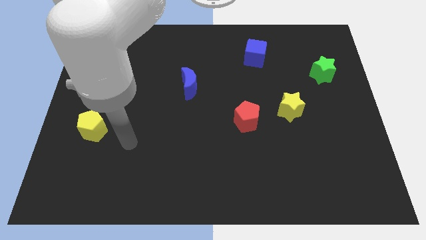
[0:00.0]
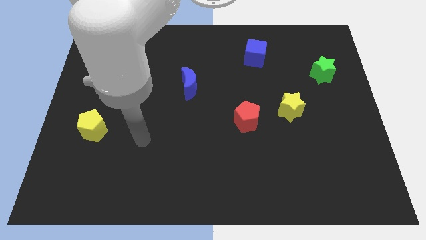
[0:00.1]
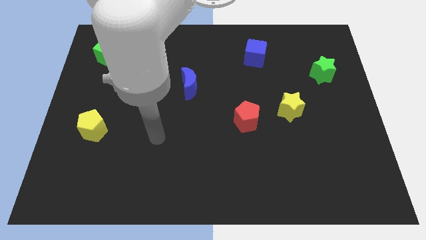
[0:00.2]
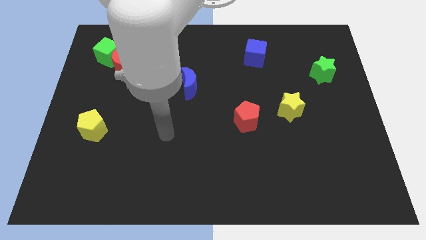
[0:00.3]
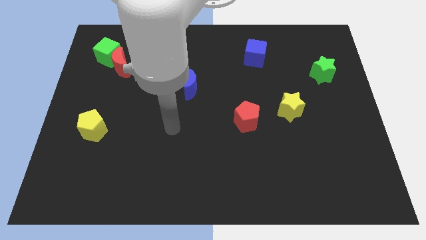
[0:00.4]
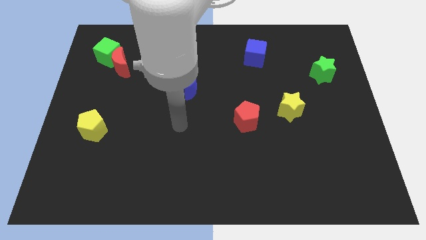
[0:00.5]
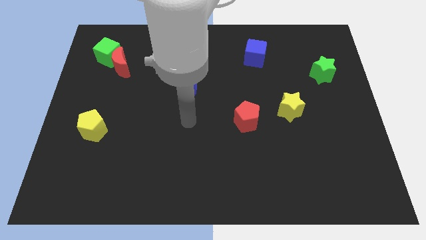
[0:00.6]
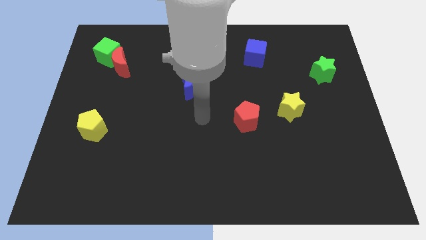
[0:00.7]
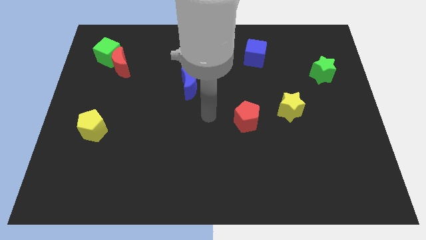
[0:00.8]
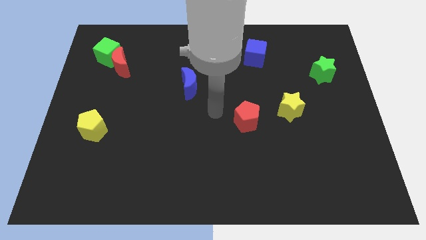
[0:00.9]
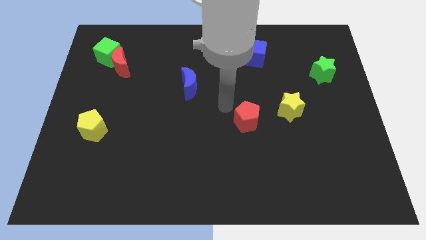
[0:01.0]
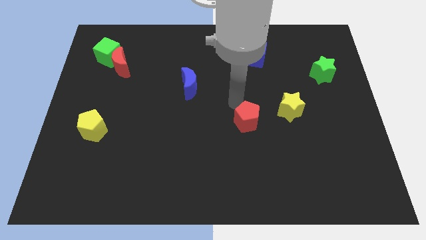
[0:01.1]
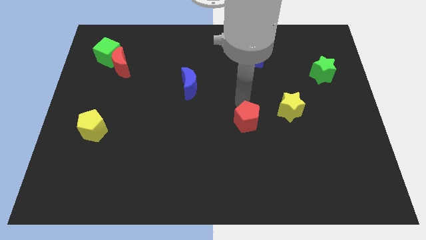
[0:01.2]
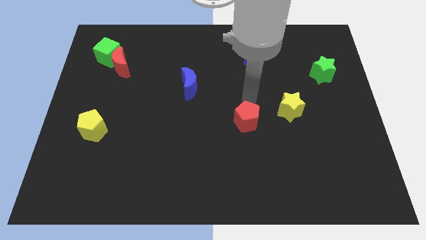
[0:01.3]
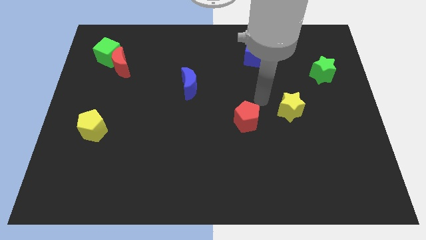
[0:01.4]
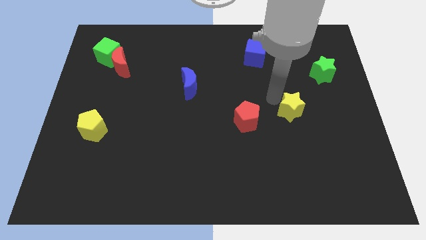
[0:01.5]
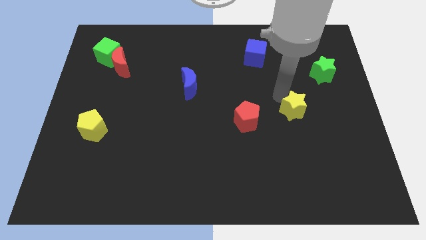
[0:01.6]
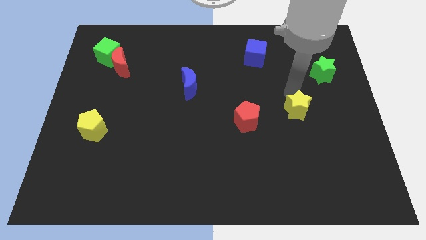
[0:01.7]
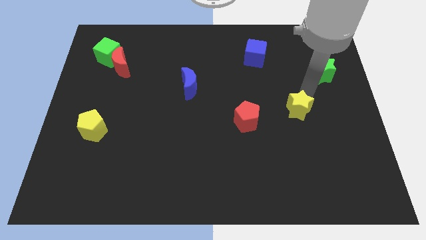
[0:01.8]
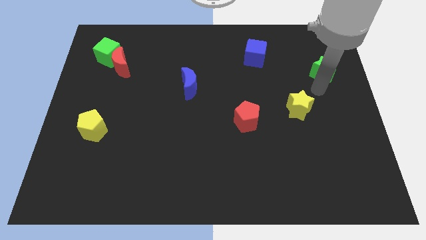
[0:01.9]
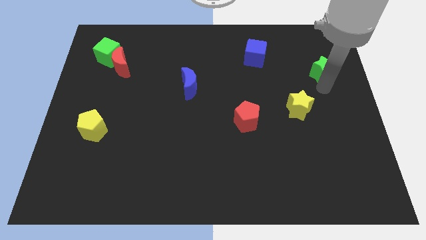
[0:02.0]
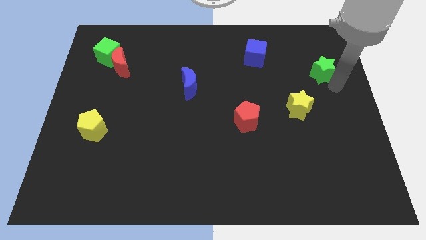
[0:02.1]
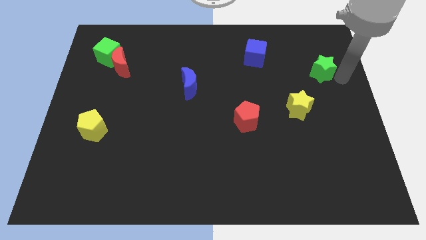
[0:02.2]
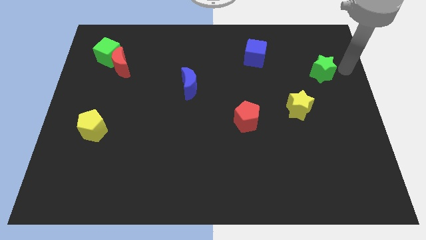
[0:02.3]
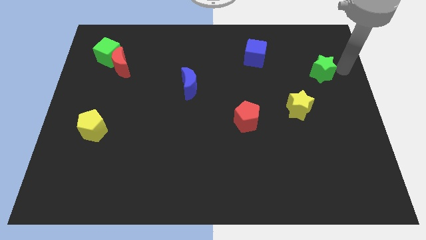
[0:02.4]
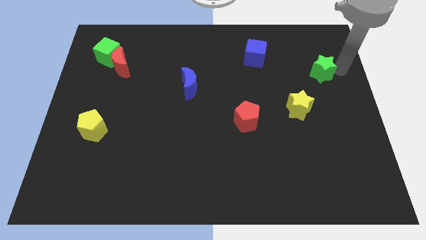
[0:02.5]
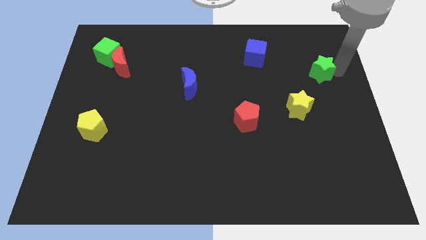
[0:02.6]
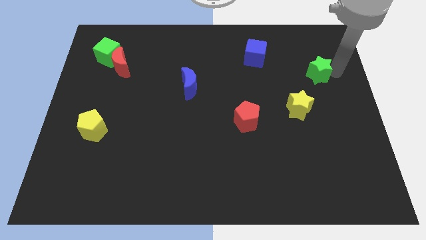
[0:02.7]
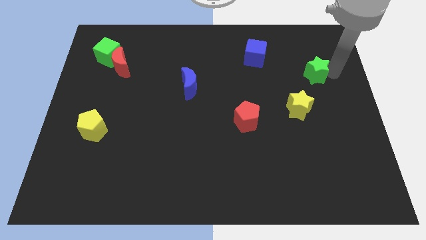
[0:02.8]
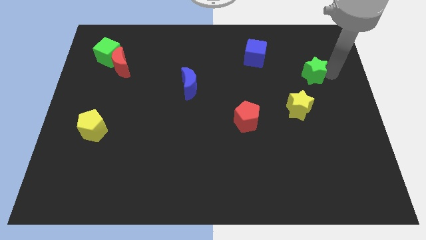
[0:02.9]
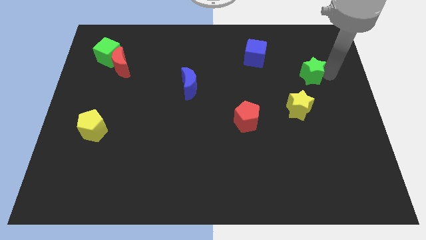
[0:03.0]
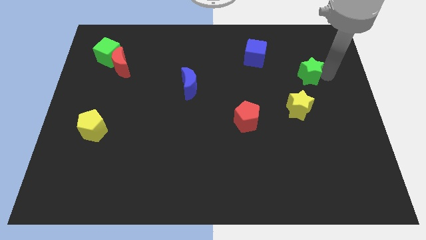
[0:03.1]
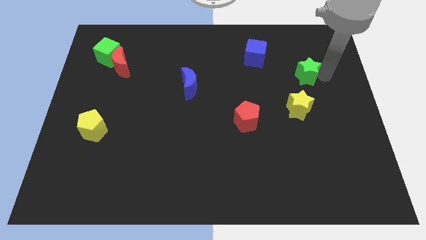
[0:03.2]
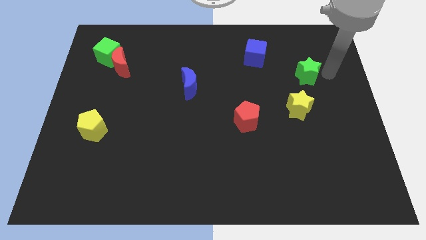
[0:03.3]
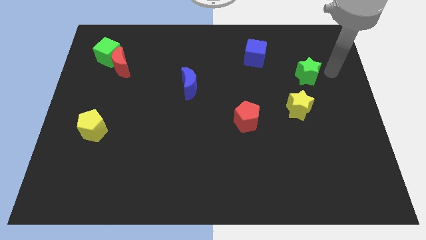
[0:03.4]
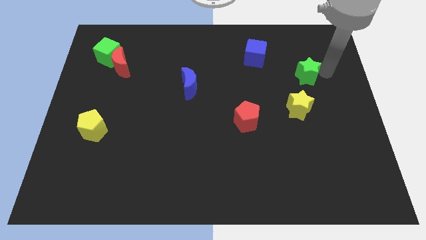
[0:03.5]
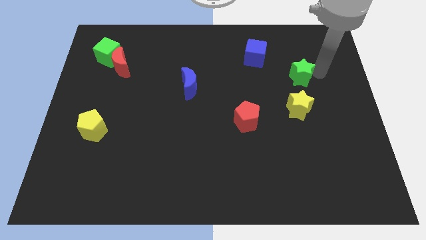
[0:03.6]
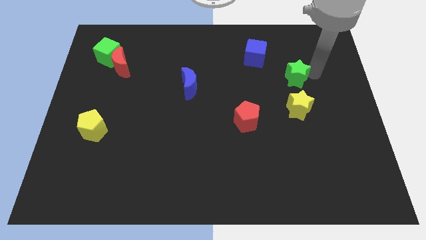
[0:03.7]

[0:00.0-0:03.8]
slightly move the green star left

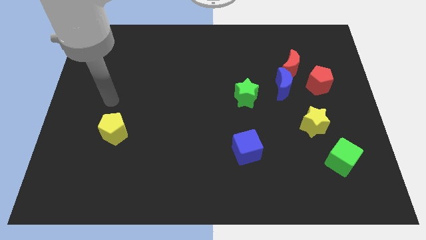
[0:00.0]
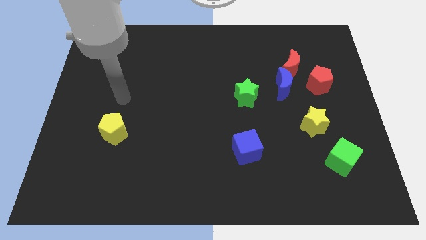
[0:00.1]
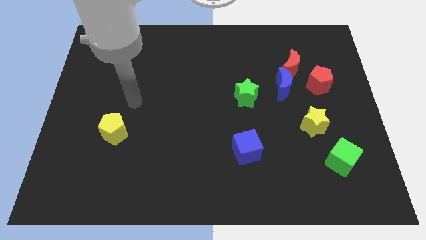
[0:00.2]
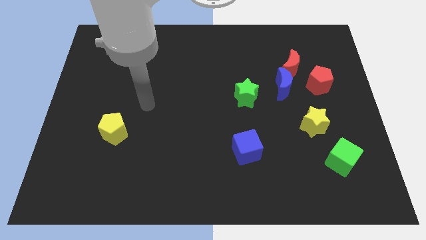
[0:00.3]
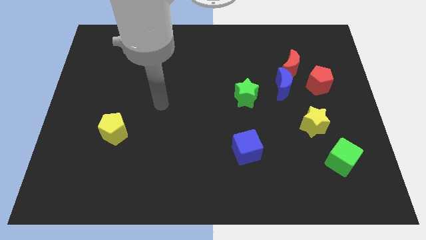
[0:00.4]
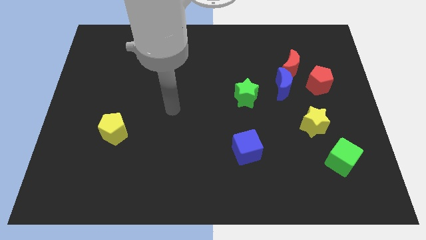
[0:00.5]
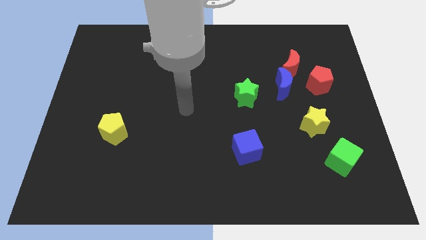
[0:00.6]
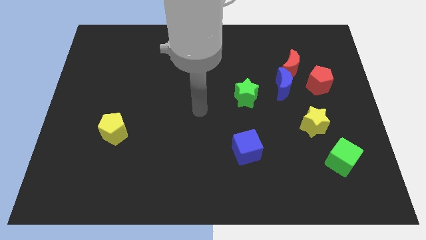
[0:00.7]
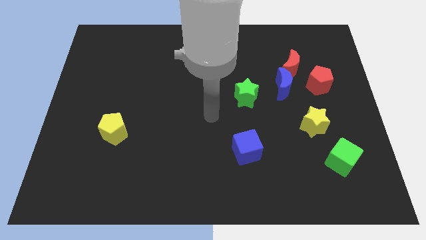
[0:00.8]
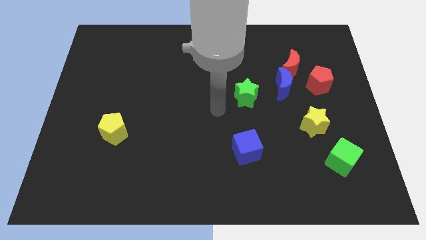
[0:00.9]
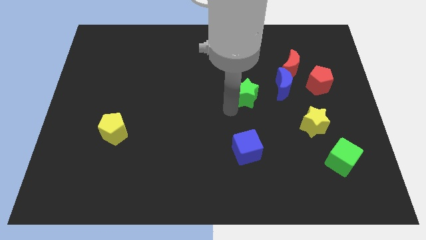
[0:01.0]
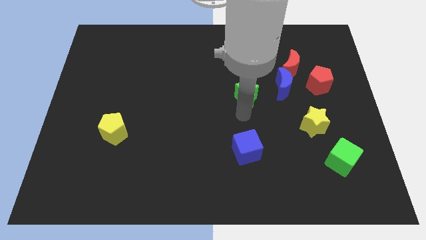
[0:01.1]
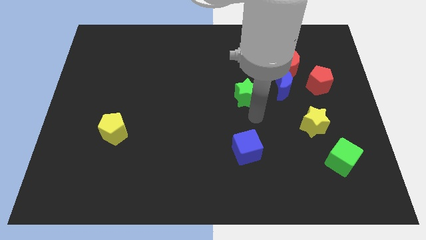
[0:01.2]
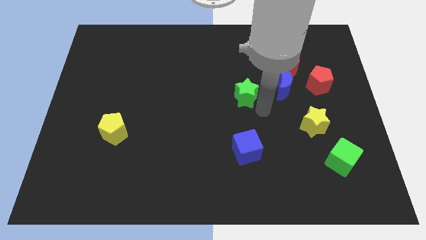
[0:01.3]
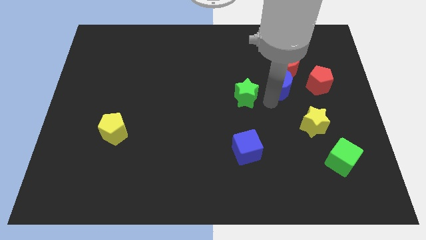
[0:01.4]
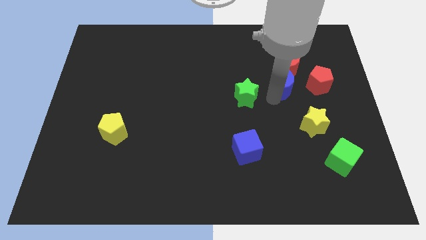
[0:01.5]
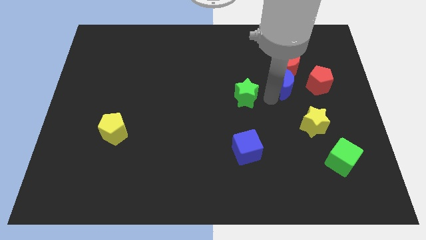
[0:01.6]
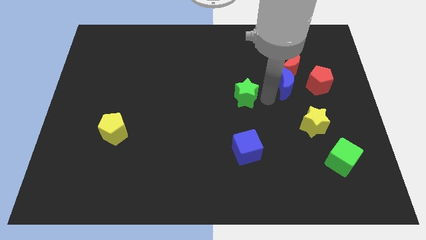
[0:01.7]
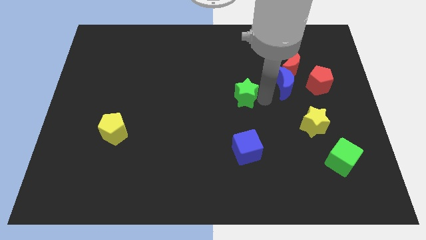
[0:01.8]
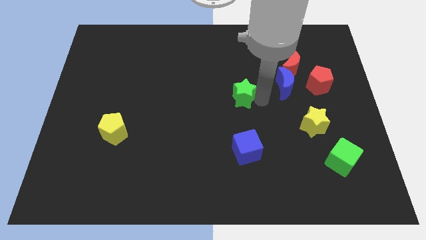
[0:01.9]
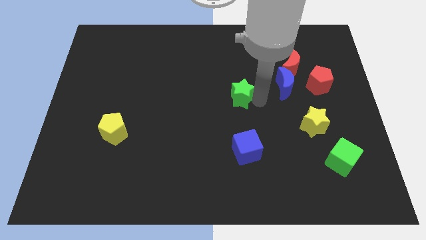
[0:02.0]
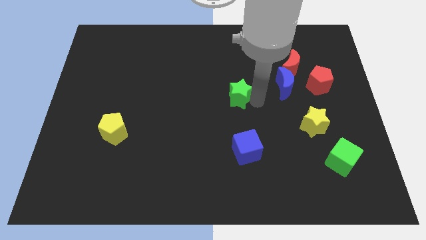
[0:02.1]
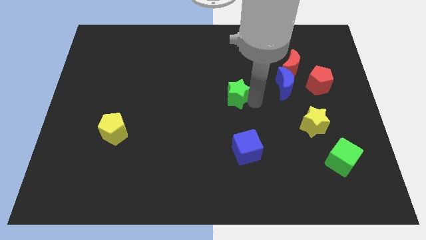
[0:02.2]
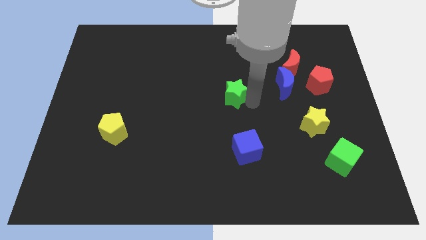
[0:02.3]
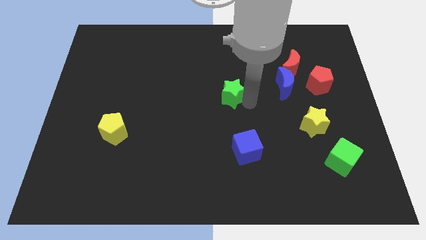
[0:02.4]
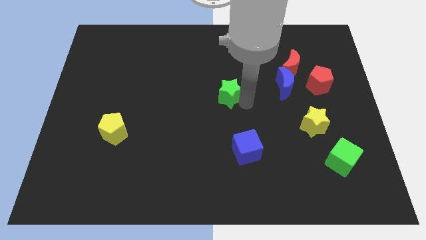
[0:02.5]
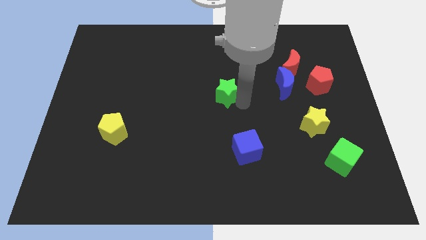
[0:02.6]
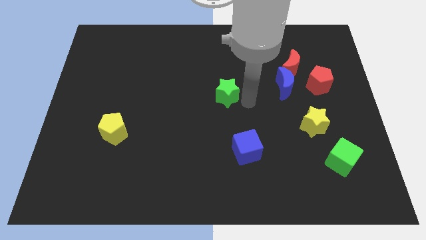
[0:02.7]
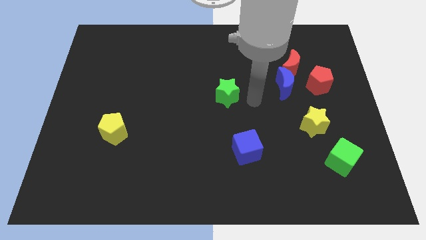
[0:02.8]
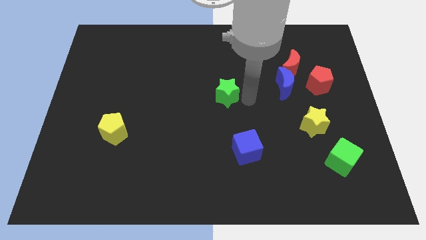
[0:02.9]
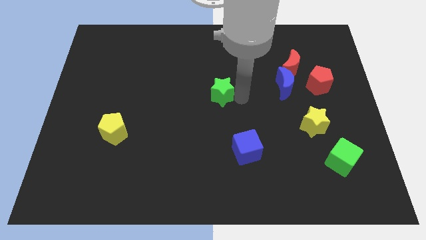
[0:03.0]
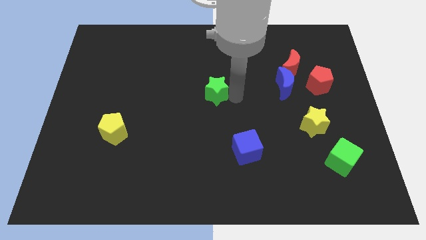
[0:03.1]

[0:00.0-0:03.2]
push the green star to the left slightly

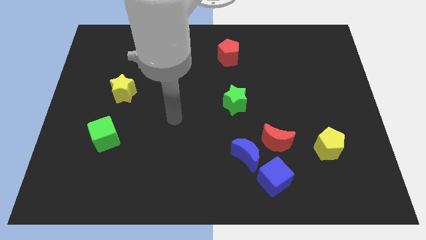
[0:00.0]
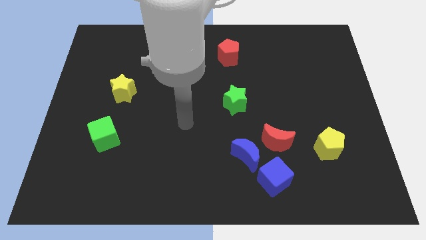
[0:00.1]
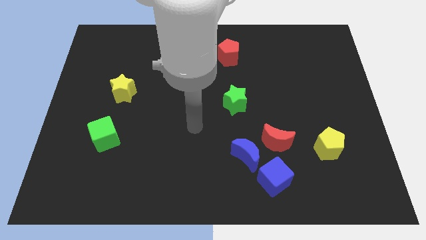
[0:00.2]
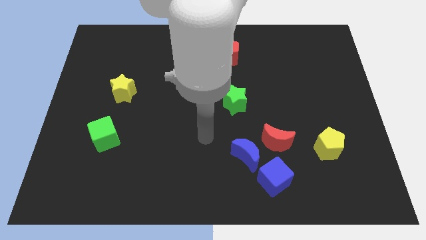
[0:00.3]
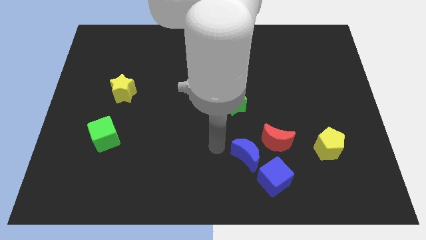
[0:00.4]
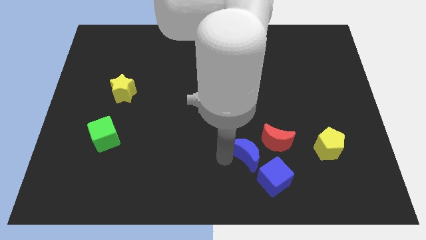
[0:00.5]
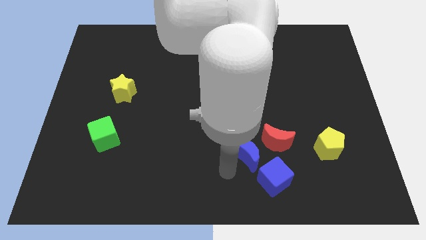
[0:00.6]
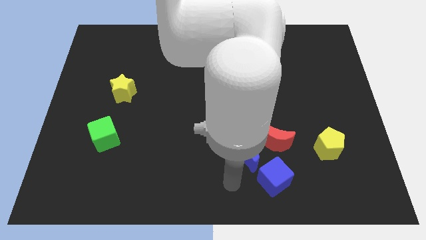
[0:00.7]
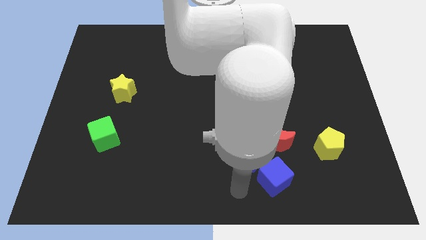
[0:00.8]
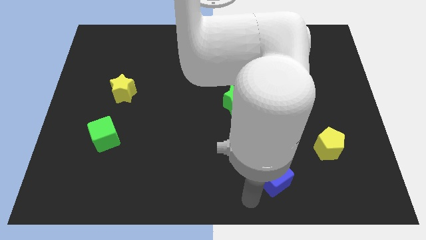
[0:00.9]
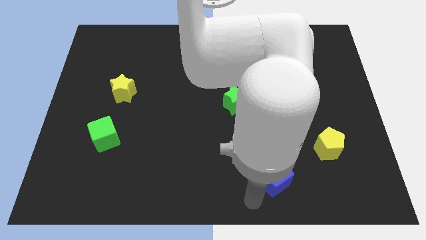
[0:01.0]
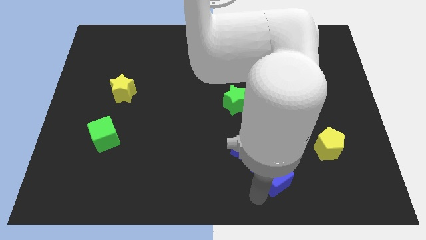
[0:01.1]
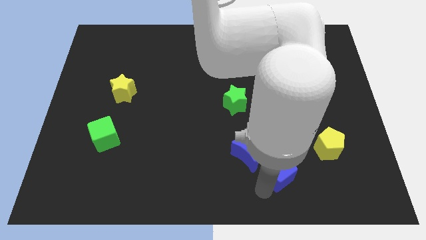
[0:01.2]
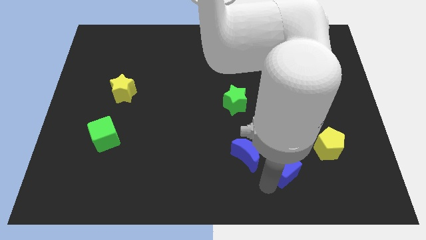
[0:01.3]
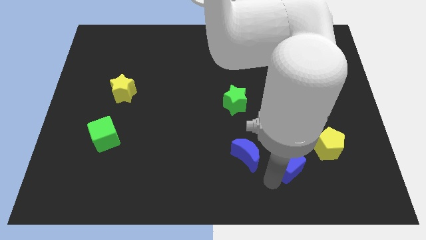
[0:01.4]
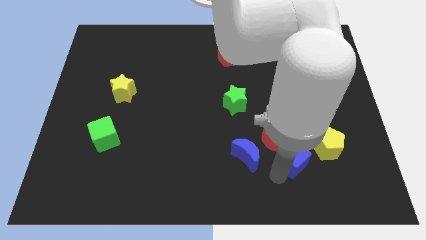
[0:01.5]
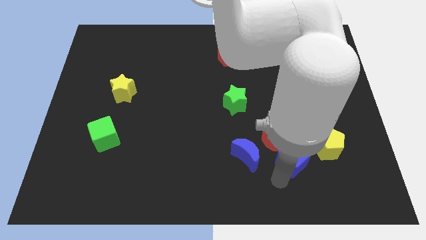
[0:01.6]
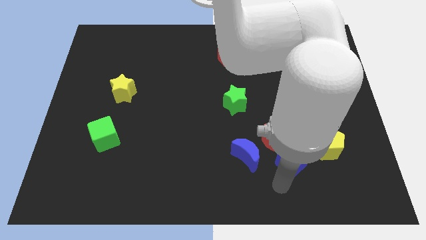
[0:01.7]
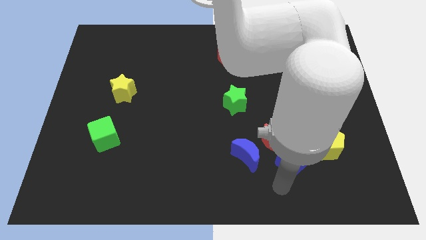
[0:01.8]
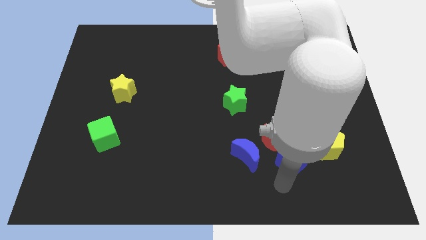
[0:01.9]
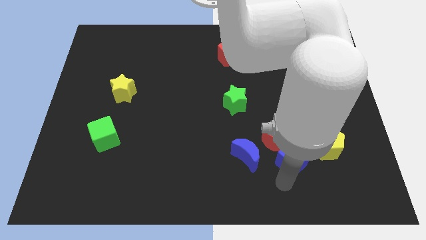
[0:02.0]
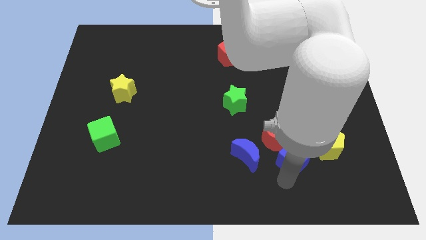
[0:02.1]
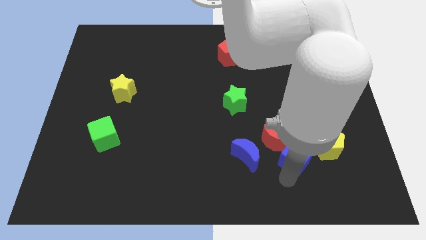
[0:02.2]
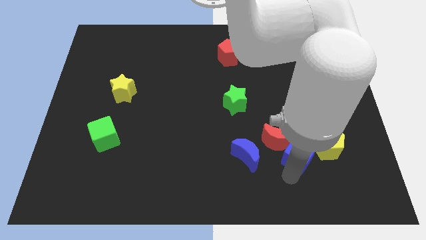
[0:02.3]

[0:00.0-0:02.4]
slightly slide the blue cube upwards and to the right
